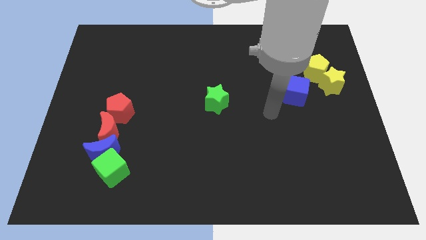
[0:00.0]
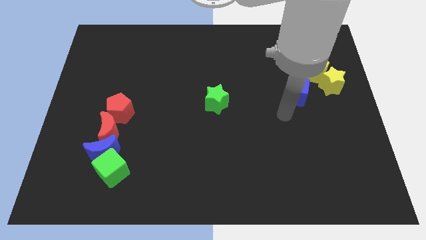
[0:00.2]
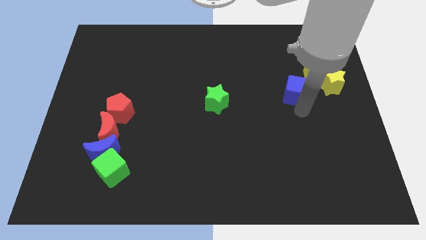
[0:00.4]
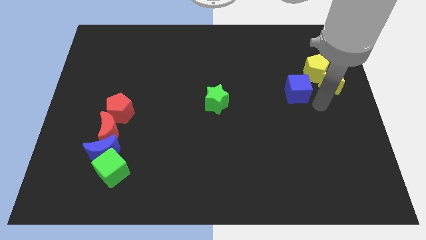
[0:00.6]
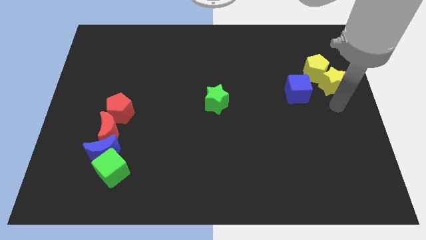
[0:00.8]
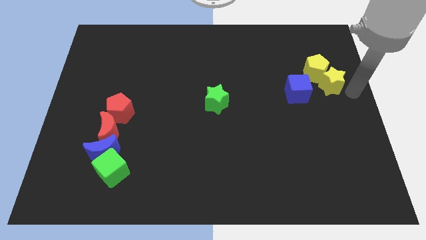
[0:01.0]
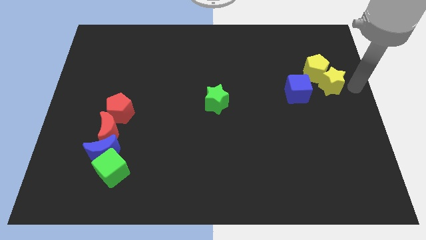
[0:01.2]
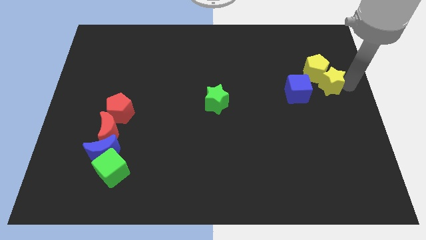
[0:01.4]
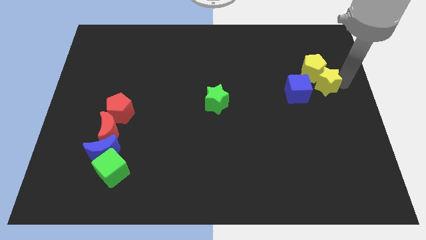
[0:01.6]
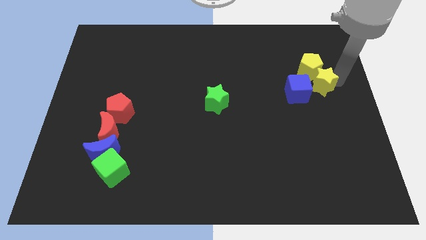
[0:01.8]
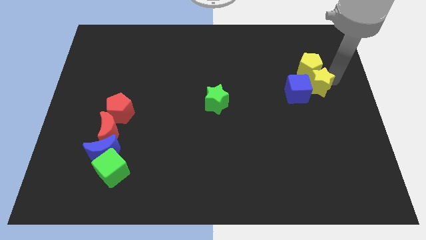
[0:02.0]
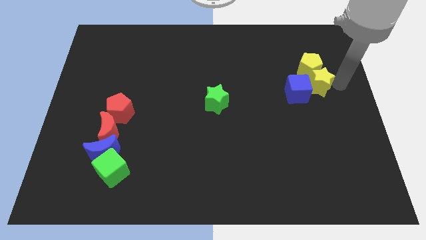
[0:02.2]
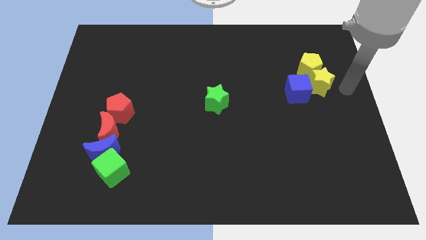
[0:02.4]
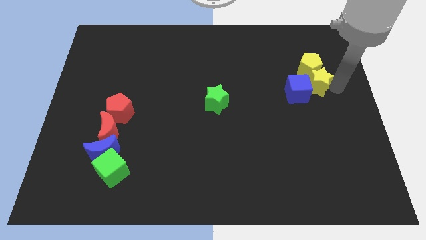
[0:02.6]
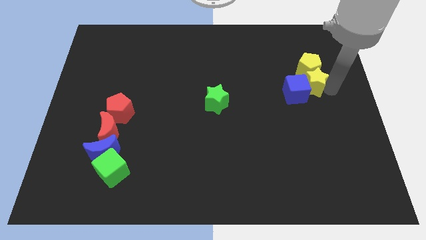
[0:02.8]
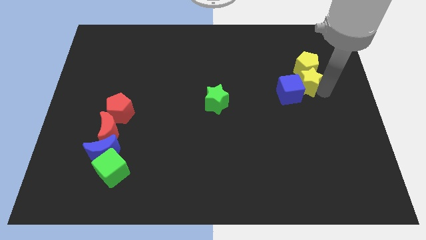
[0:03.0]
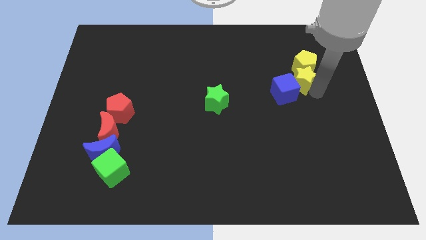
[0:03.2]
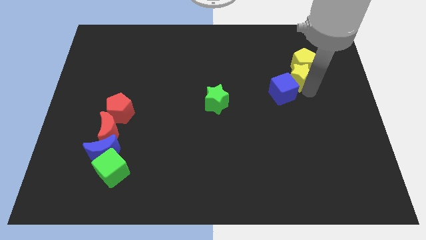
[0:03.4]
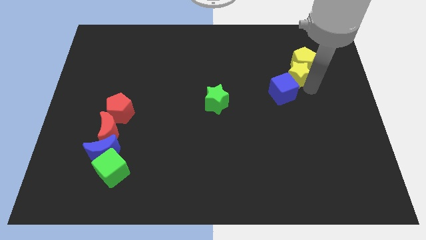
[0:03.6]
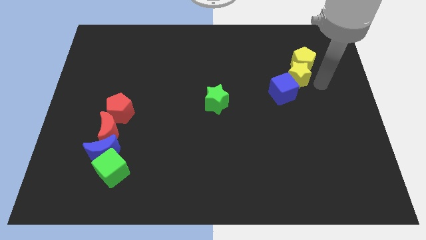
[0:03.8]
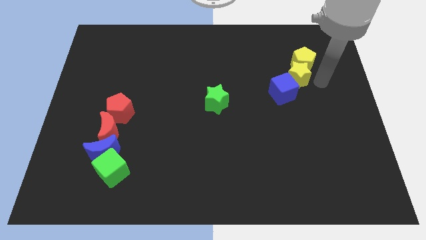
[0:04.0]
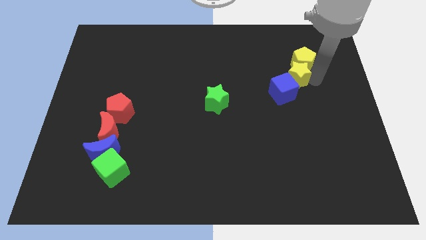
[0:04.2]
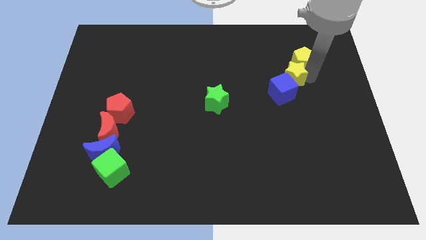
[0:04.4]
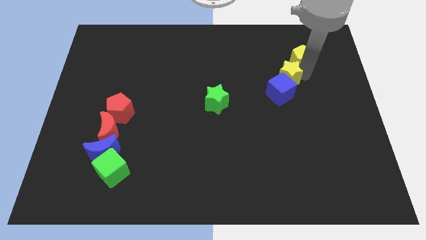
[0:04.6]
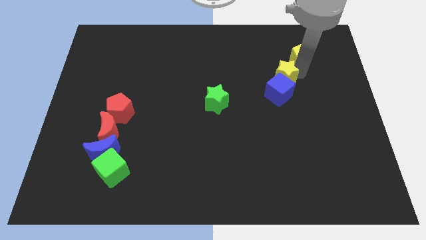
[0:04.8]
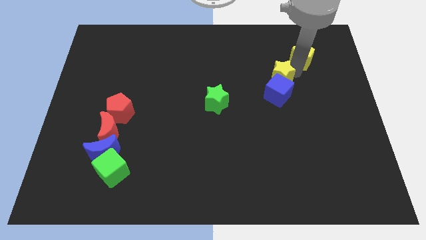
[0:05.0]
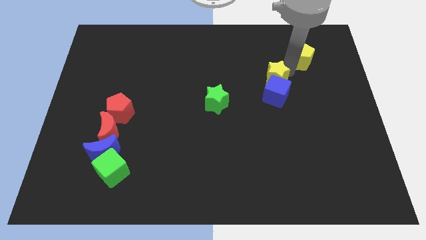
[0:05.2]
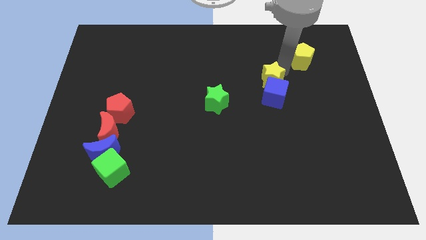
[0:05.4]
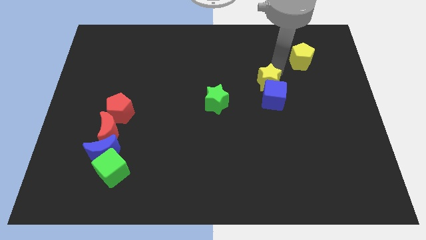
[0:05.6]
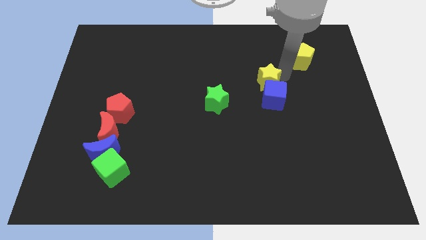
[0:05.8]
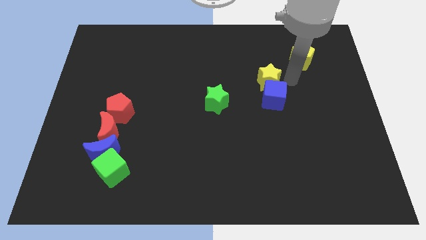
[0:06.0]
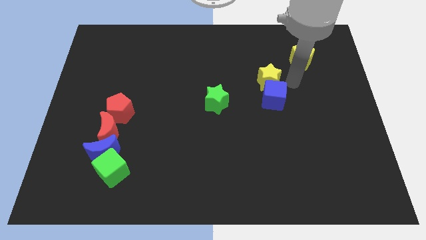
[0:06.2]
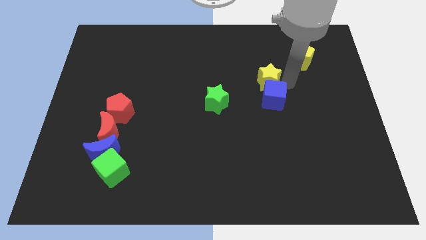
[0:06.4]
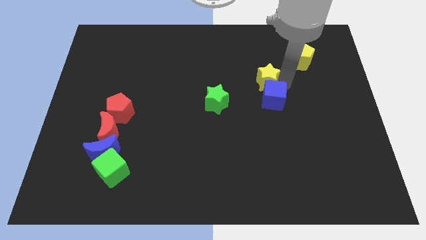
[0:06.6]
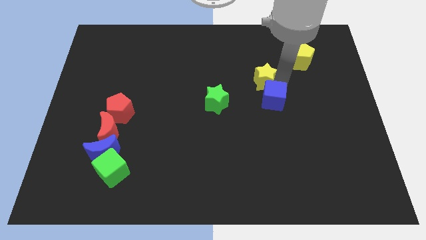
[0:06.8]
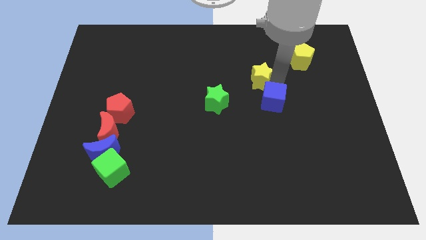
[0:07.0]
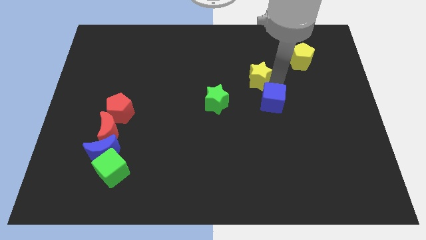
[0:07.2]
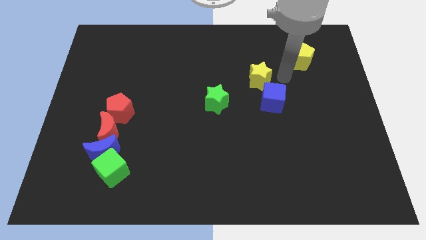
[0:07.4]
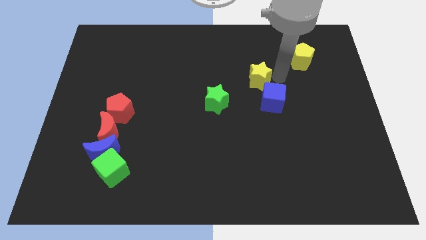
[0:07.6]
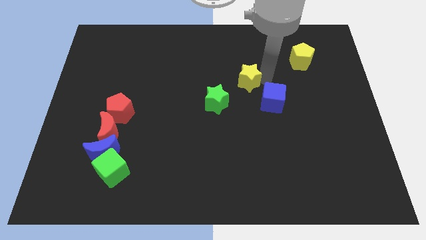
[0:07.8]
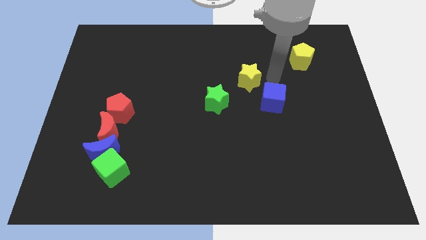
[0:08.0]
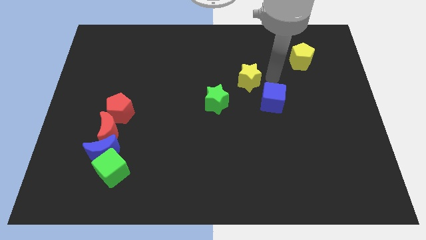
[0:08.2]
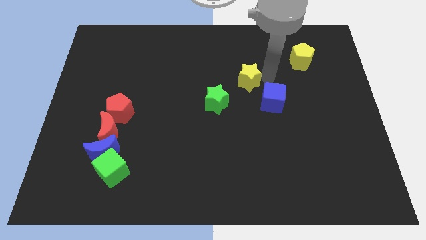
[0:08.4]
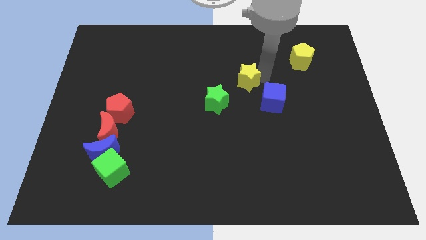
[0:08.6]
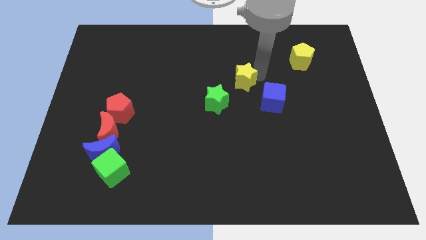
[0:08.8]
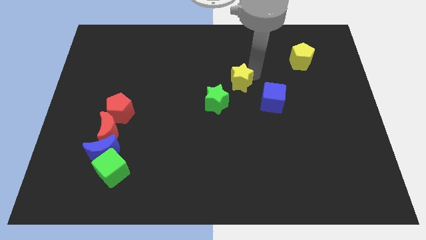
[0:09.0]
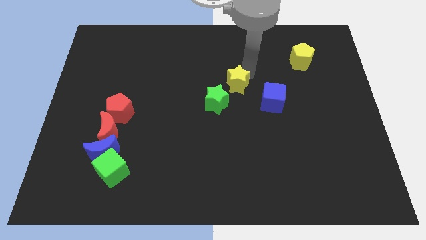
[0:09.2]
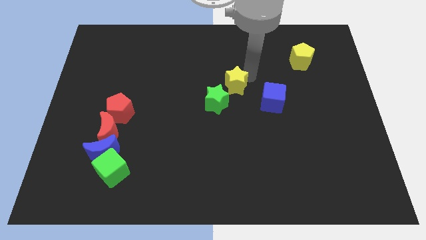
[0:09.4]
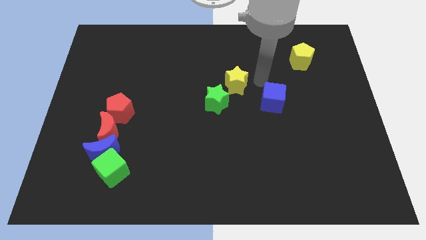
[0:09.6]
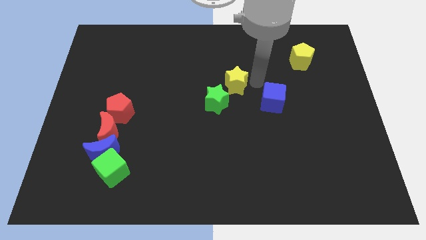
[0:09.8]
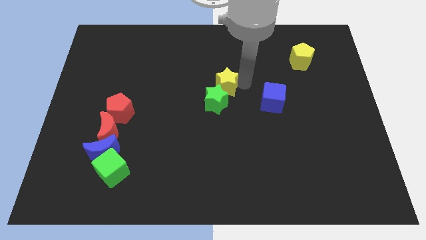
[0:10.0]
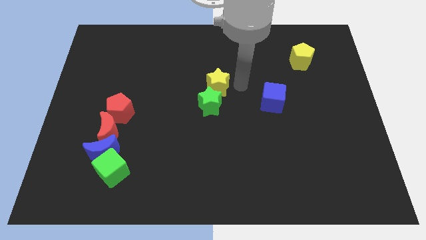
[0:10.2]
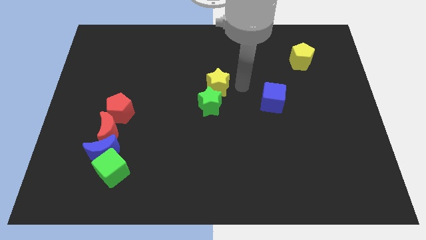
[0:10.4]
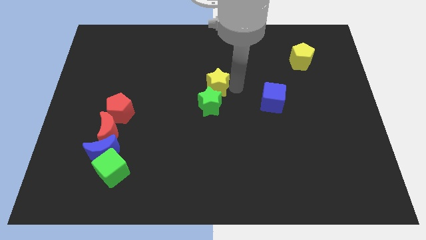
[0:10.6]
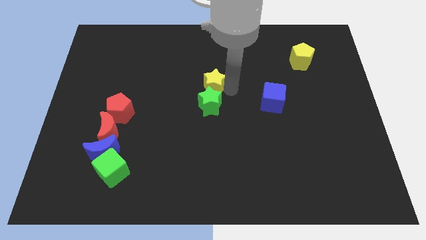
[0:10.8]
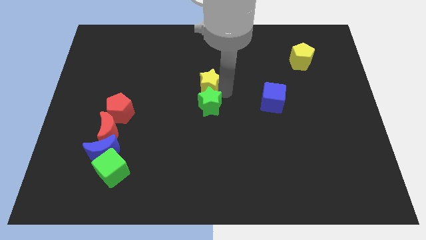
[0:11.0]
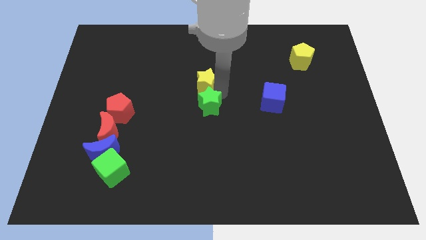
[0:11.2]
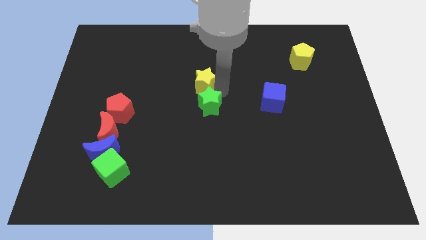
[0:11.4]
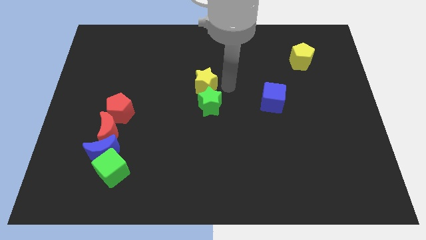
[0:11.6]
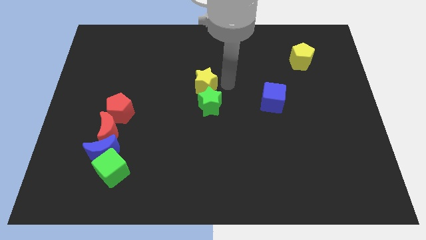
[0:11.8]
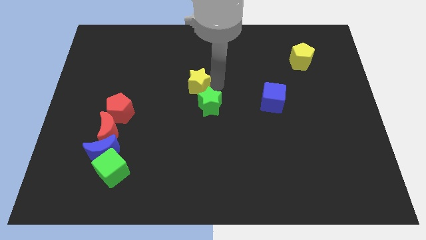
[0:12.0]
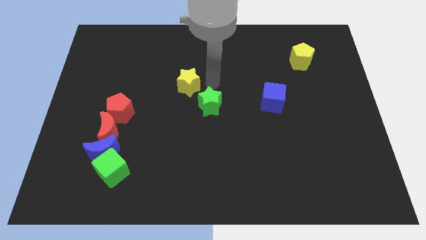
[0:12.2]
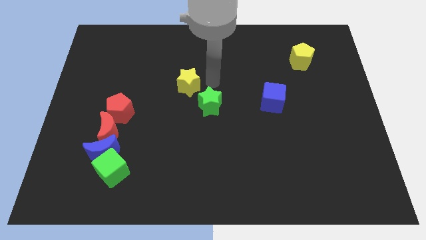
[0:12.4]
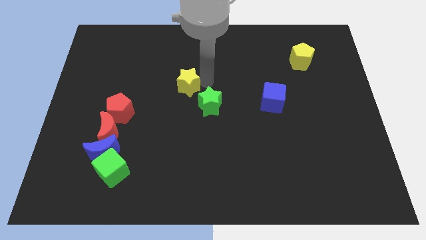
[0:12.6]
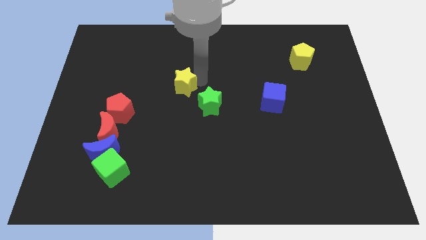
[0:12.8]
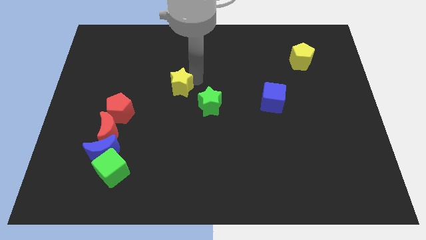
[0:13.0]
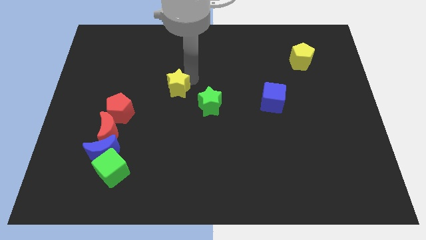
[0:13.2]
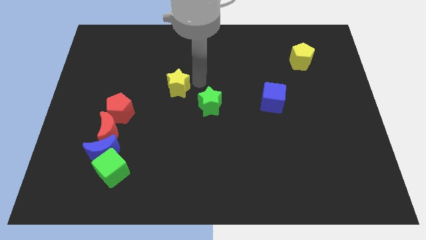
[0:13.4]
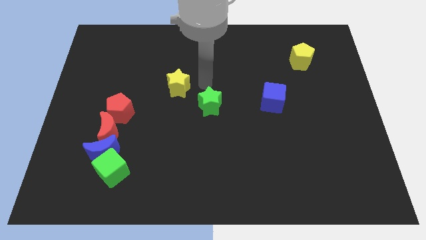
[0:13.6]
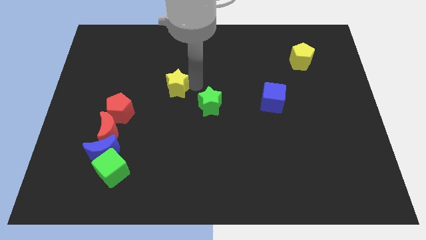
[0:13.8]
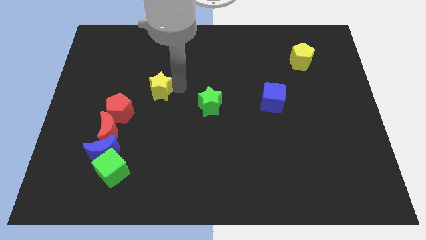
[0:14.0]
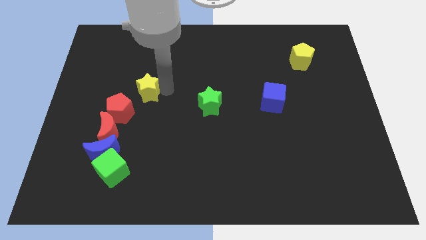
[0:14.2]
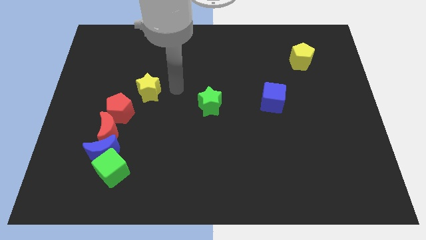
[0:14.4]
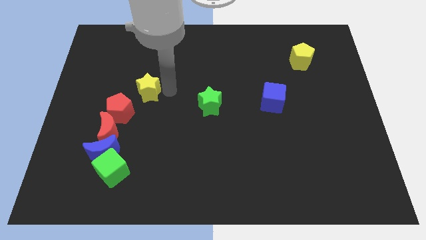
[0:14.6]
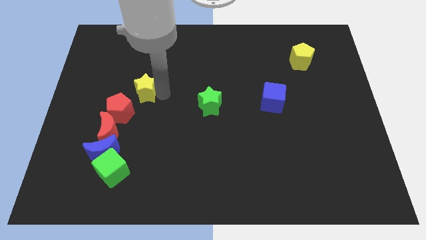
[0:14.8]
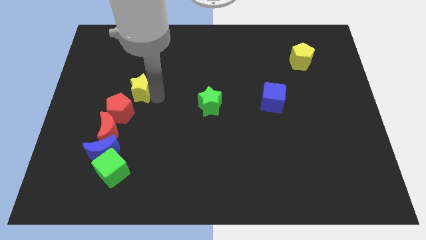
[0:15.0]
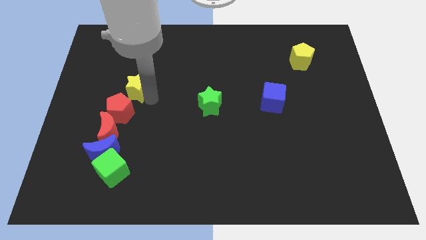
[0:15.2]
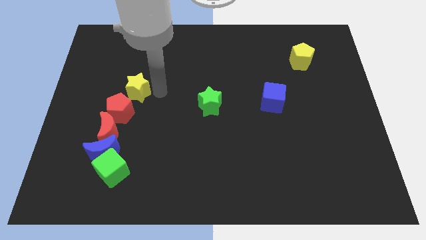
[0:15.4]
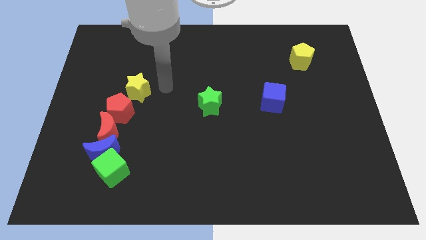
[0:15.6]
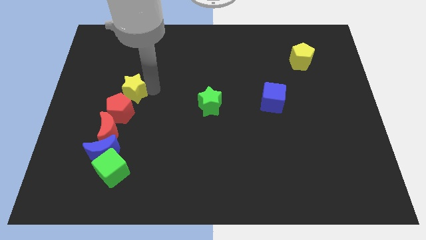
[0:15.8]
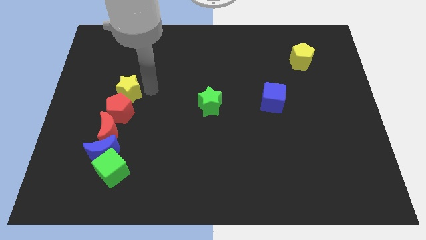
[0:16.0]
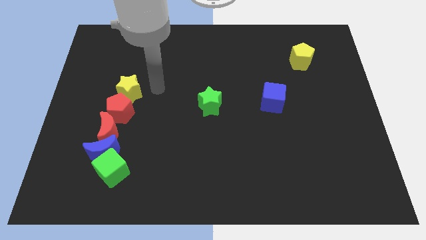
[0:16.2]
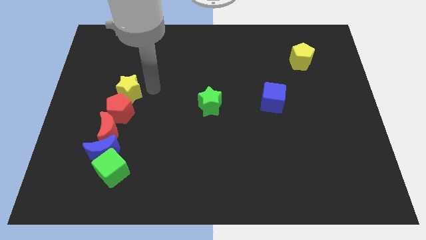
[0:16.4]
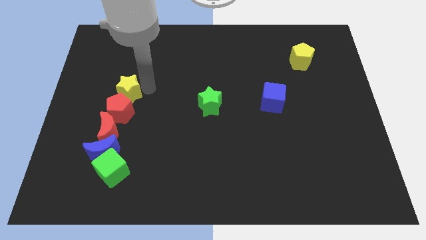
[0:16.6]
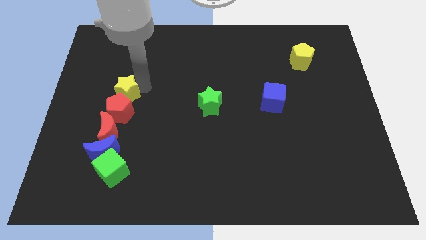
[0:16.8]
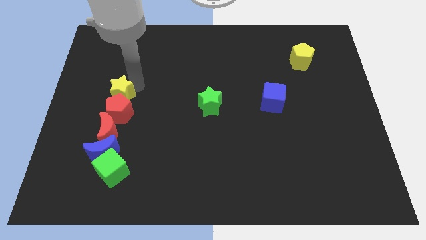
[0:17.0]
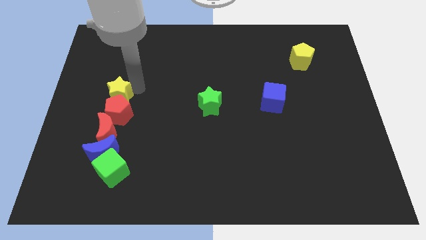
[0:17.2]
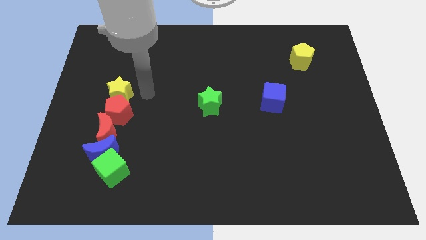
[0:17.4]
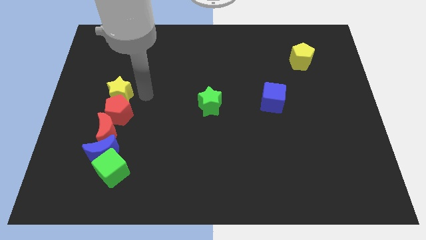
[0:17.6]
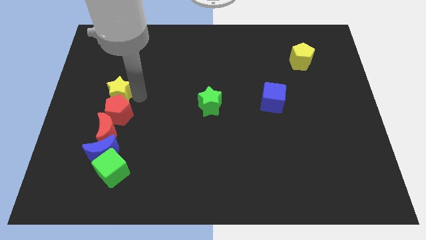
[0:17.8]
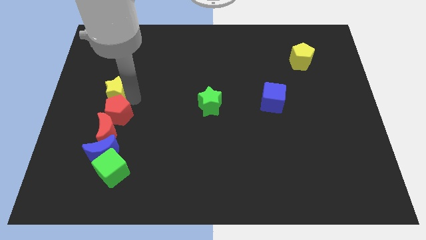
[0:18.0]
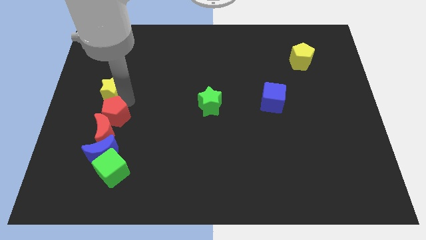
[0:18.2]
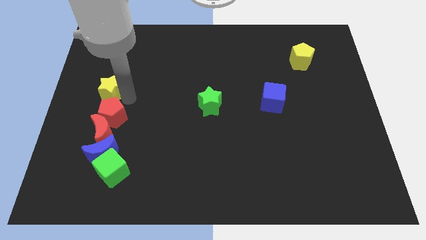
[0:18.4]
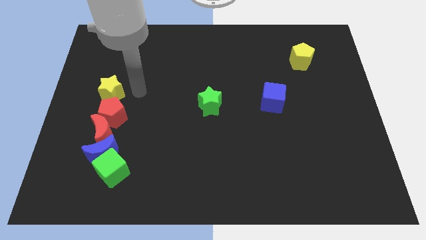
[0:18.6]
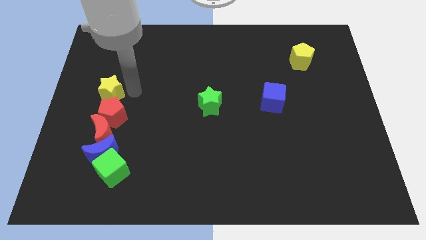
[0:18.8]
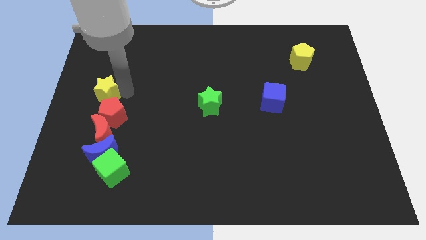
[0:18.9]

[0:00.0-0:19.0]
push the yellow star to the left side
